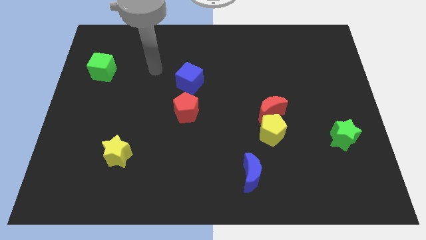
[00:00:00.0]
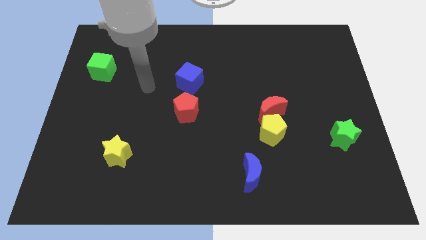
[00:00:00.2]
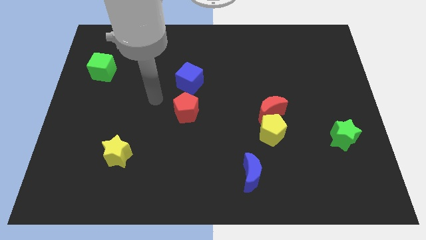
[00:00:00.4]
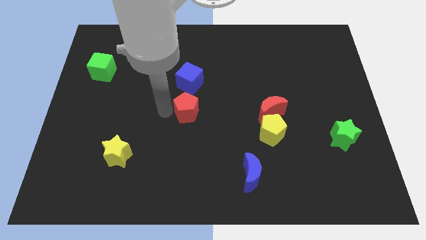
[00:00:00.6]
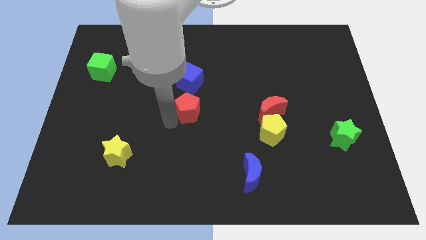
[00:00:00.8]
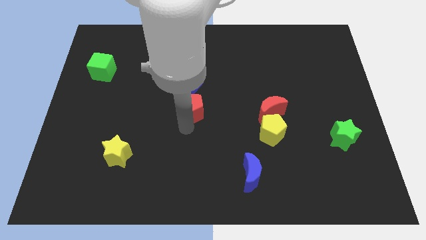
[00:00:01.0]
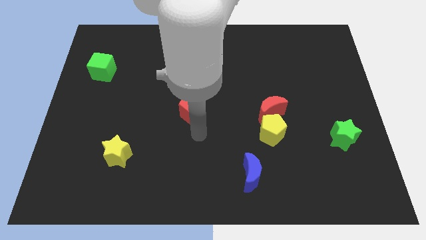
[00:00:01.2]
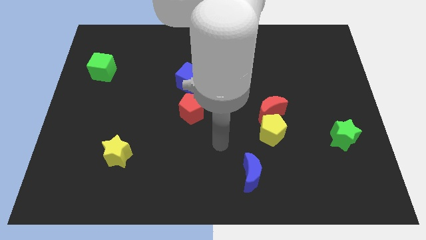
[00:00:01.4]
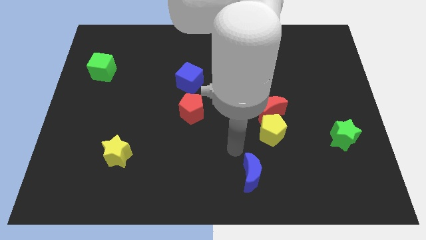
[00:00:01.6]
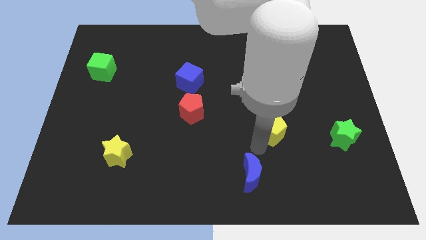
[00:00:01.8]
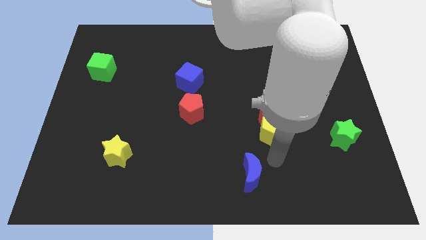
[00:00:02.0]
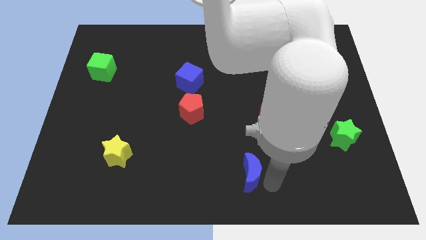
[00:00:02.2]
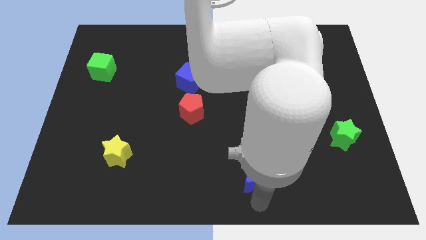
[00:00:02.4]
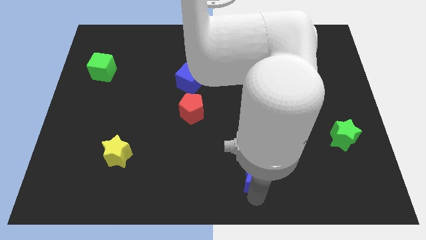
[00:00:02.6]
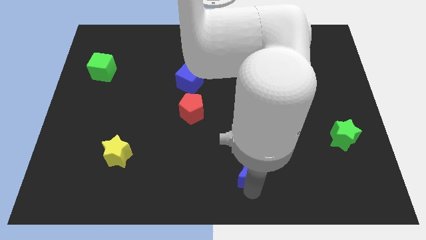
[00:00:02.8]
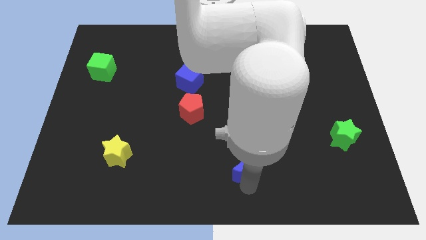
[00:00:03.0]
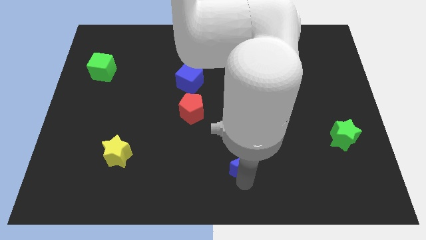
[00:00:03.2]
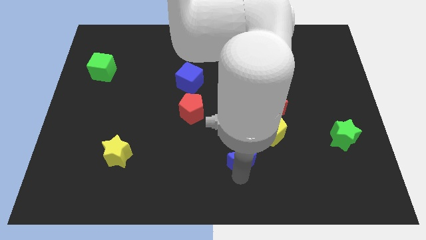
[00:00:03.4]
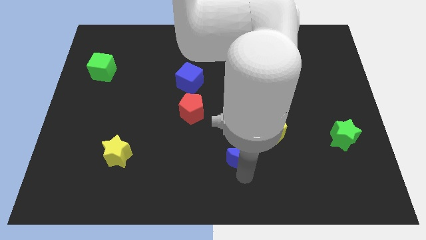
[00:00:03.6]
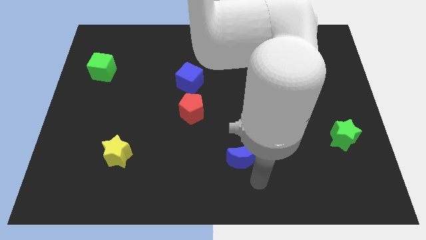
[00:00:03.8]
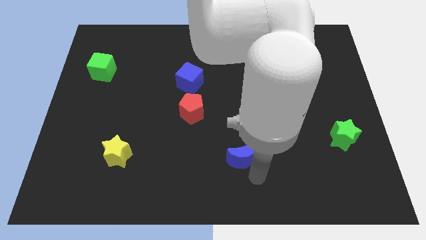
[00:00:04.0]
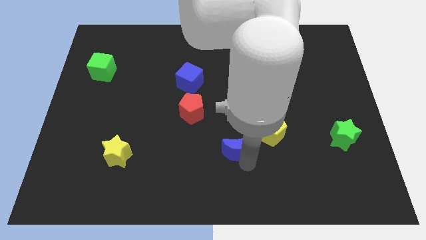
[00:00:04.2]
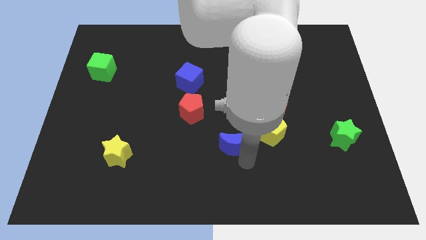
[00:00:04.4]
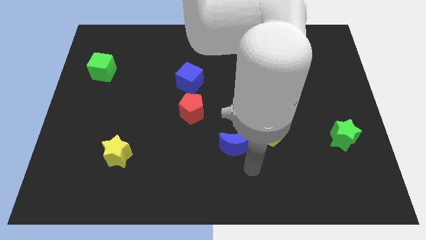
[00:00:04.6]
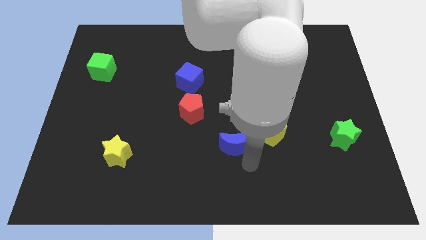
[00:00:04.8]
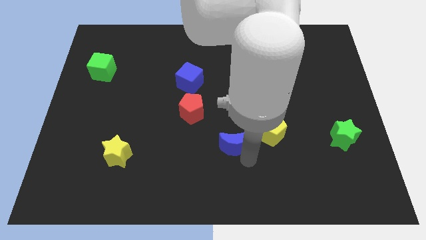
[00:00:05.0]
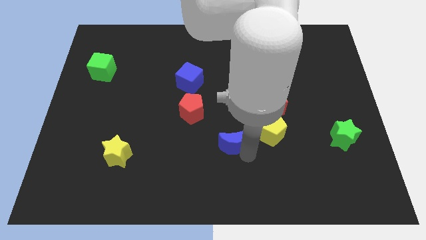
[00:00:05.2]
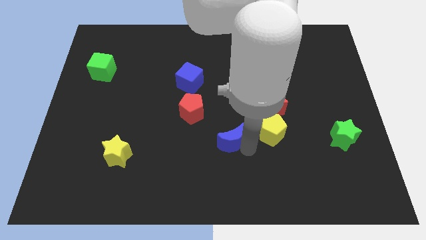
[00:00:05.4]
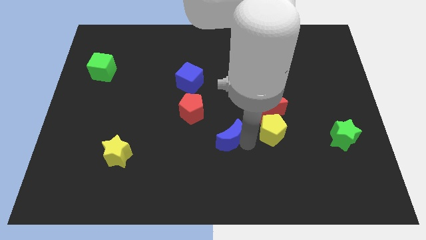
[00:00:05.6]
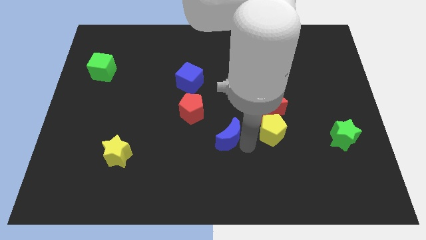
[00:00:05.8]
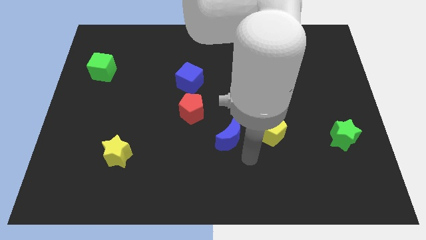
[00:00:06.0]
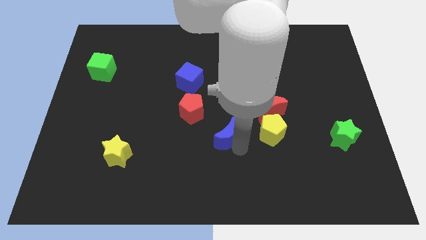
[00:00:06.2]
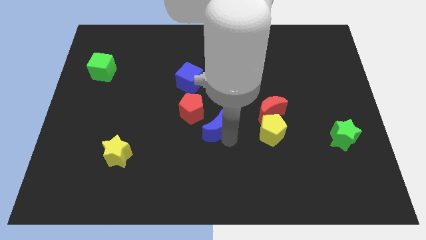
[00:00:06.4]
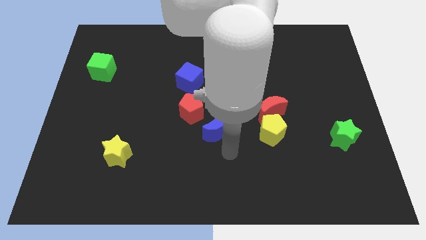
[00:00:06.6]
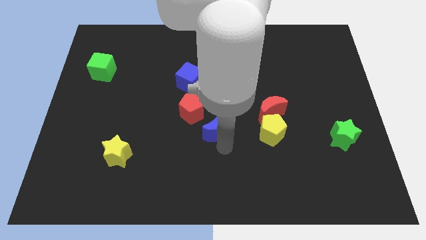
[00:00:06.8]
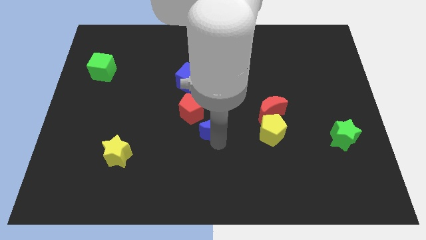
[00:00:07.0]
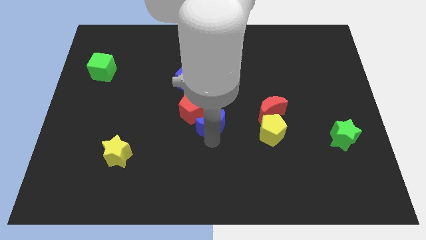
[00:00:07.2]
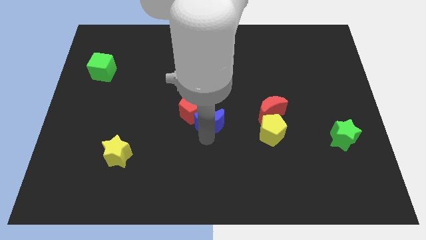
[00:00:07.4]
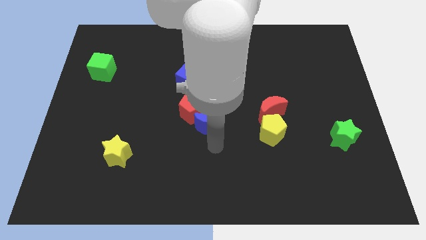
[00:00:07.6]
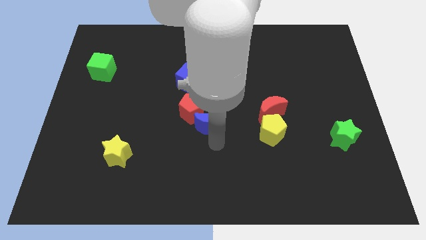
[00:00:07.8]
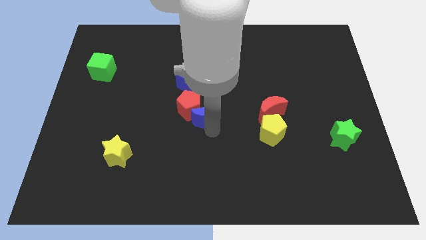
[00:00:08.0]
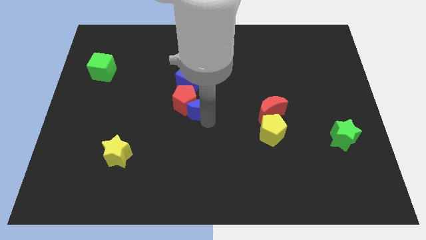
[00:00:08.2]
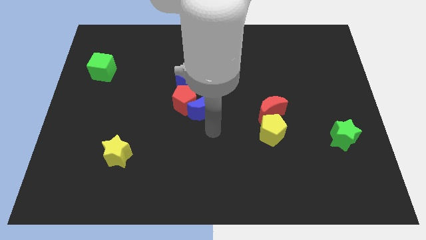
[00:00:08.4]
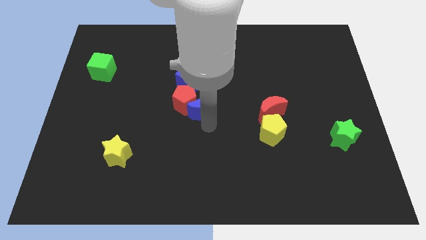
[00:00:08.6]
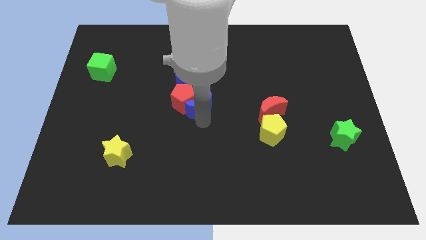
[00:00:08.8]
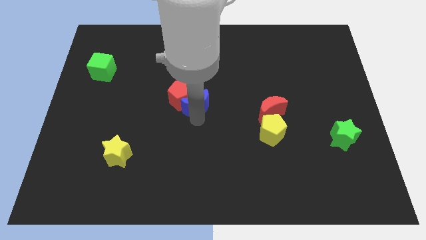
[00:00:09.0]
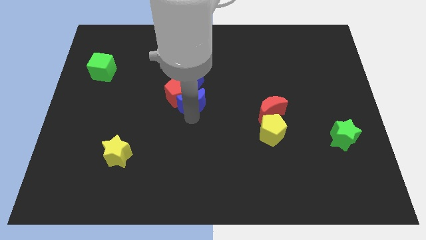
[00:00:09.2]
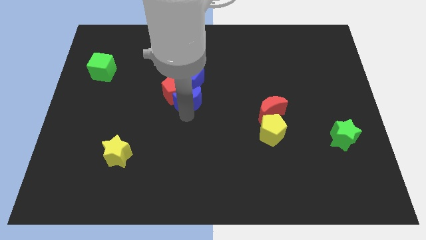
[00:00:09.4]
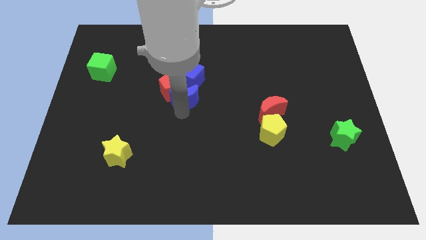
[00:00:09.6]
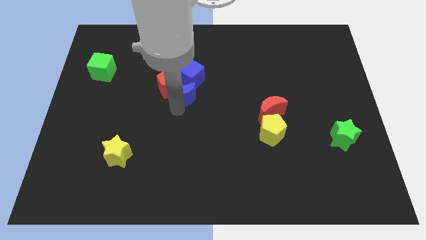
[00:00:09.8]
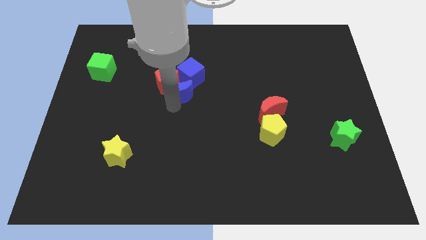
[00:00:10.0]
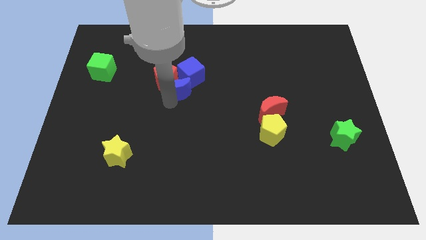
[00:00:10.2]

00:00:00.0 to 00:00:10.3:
put the blue moon to the blue cube

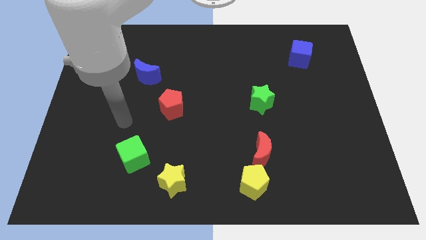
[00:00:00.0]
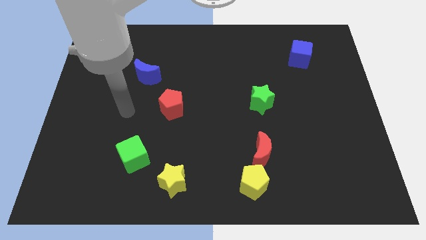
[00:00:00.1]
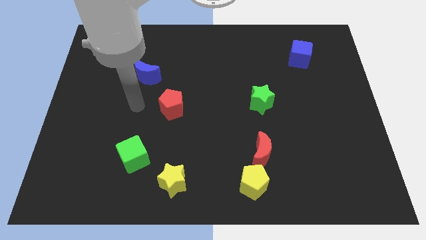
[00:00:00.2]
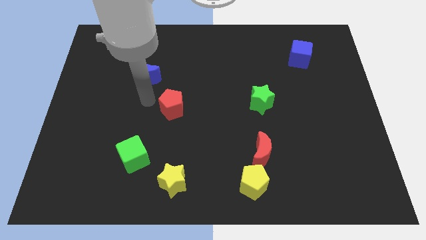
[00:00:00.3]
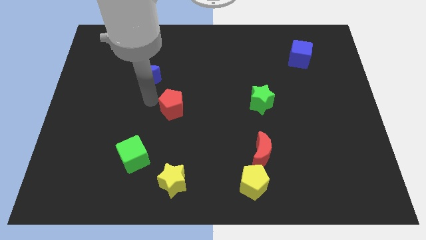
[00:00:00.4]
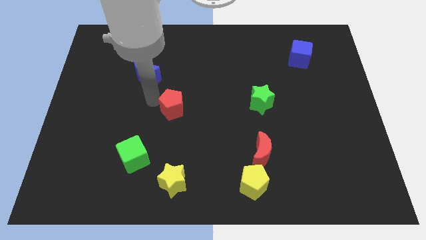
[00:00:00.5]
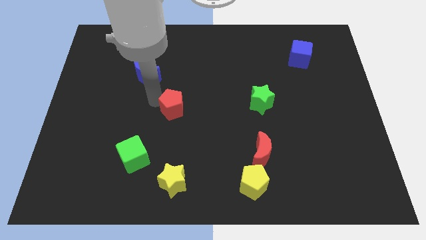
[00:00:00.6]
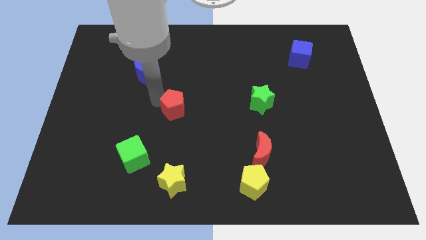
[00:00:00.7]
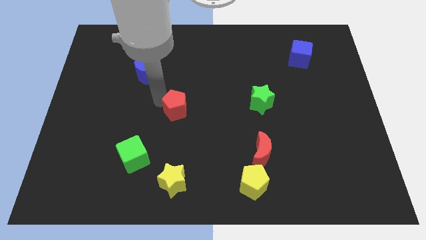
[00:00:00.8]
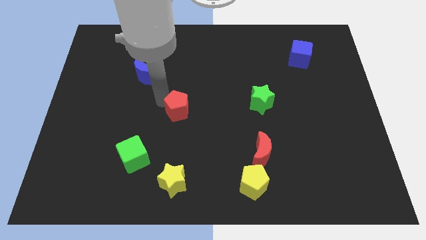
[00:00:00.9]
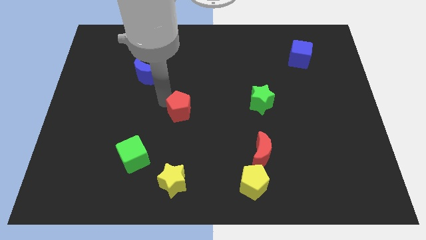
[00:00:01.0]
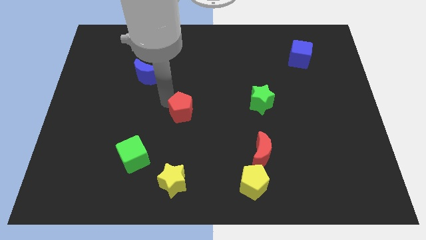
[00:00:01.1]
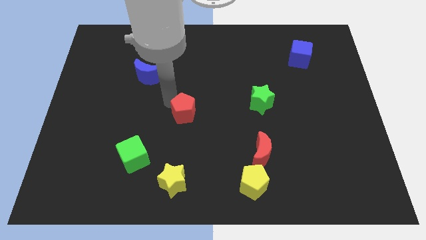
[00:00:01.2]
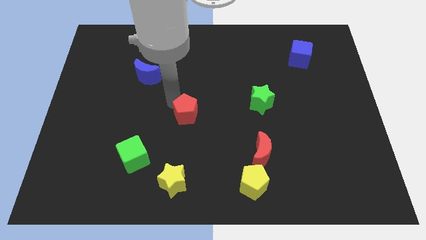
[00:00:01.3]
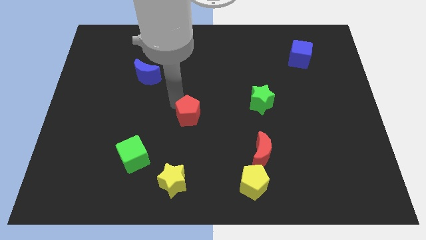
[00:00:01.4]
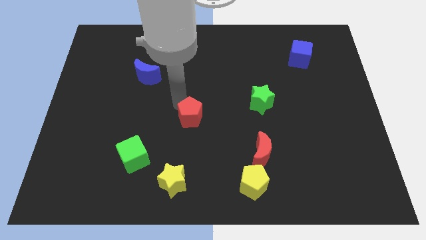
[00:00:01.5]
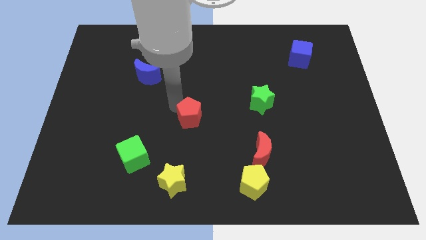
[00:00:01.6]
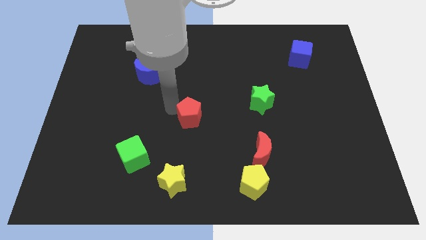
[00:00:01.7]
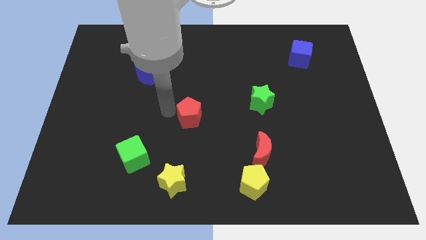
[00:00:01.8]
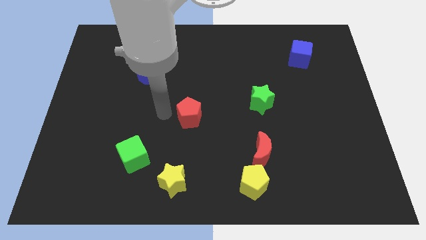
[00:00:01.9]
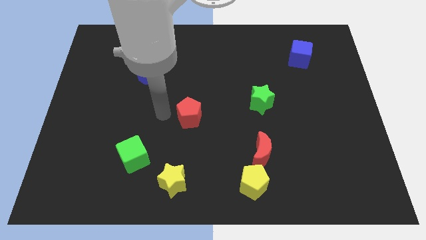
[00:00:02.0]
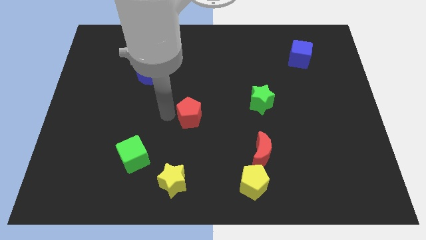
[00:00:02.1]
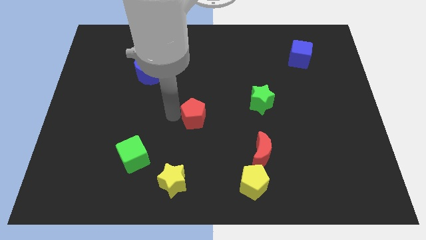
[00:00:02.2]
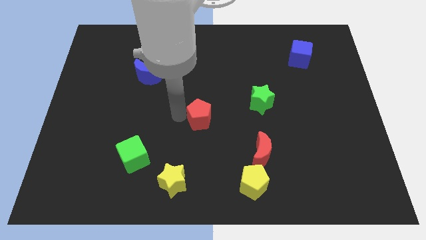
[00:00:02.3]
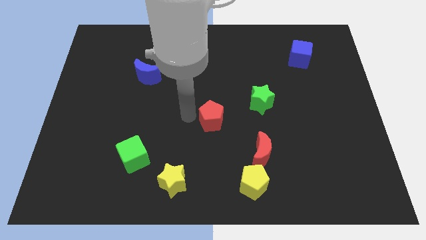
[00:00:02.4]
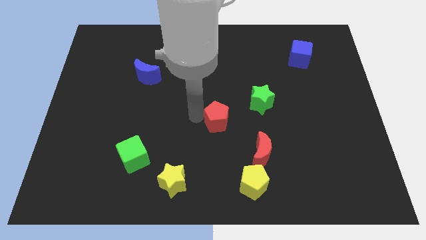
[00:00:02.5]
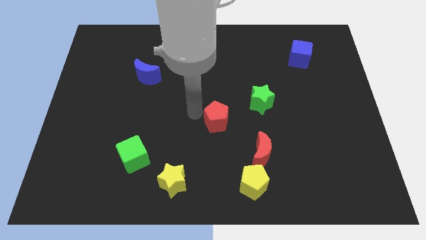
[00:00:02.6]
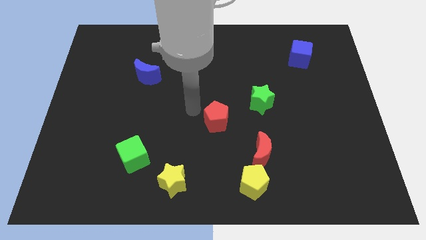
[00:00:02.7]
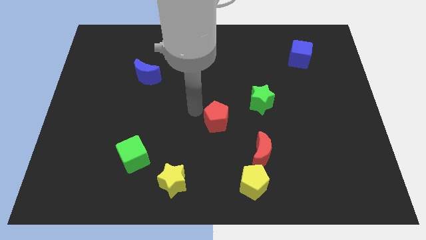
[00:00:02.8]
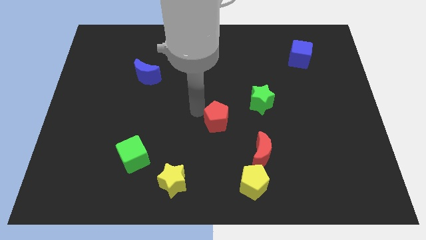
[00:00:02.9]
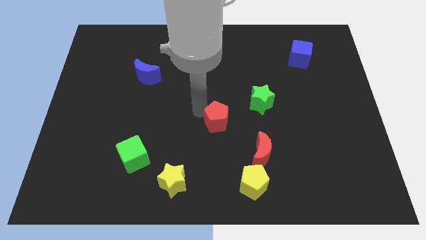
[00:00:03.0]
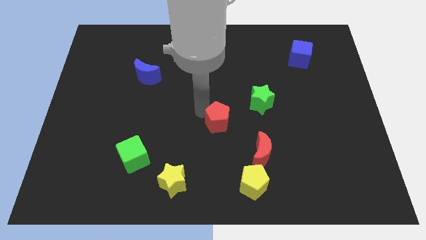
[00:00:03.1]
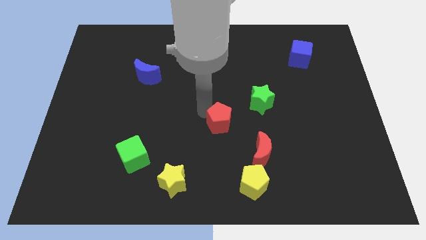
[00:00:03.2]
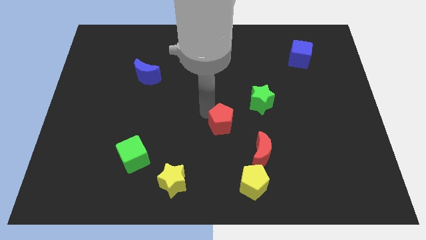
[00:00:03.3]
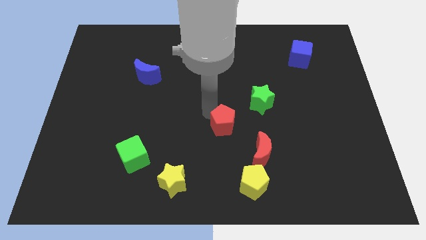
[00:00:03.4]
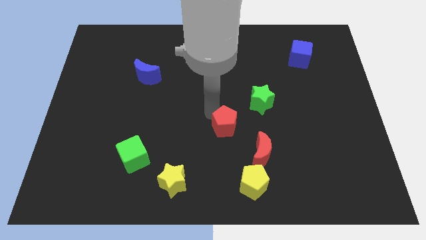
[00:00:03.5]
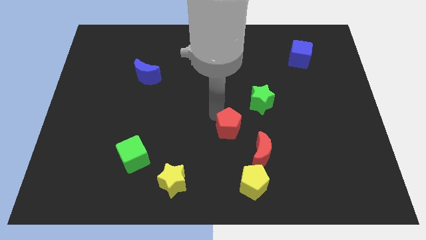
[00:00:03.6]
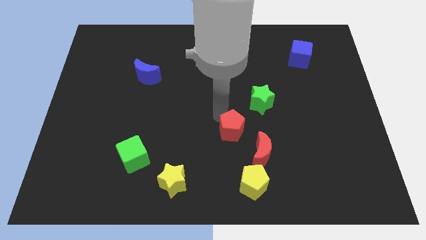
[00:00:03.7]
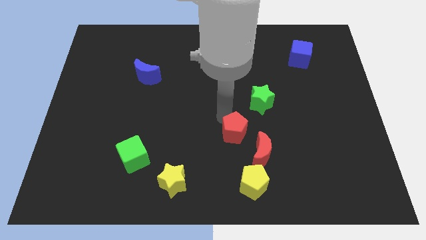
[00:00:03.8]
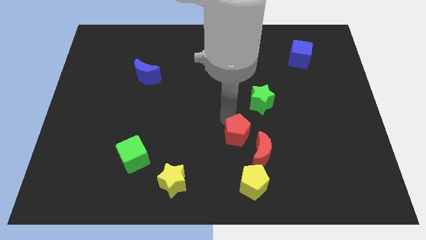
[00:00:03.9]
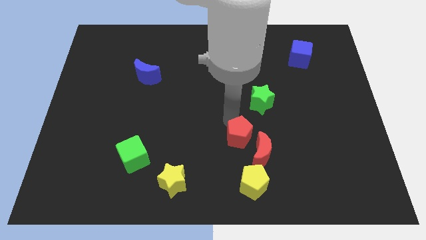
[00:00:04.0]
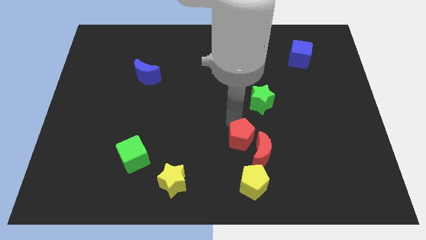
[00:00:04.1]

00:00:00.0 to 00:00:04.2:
slide the red pentagon next to the red moon
